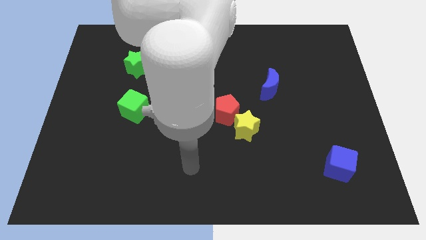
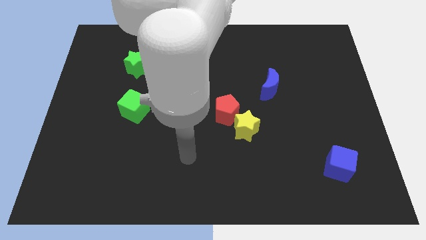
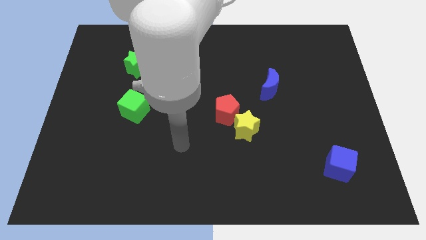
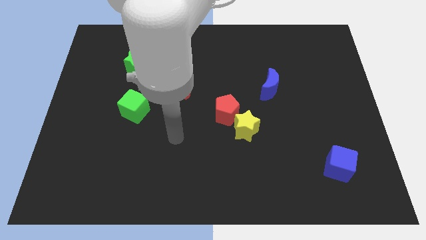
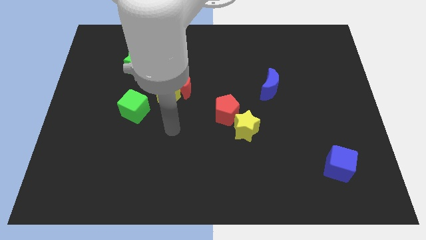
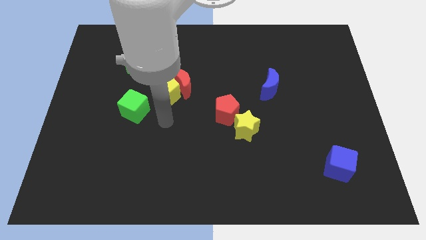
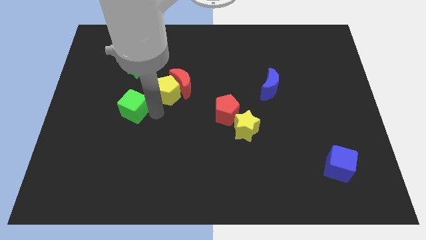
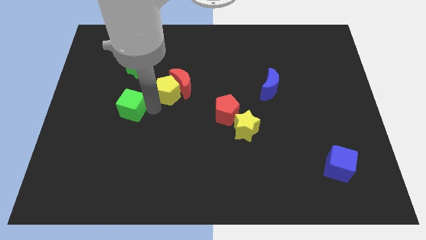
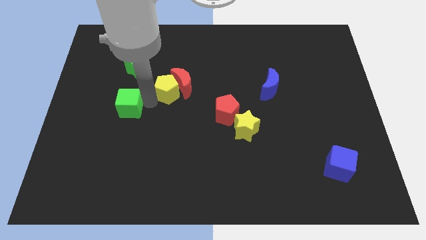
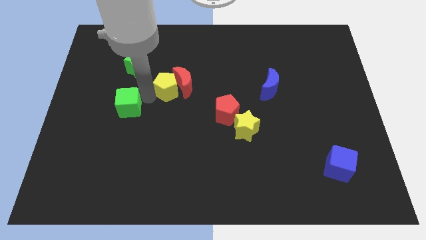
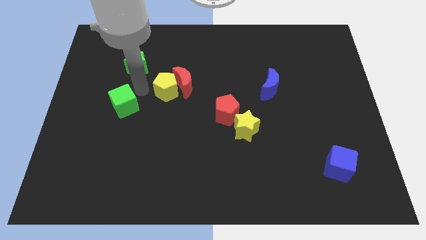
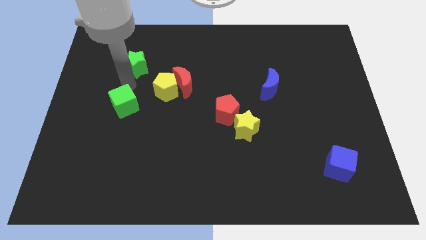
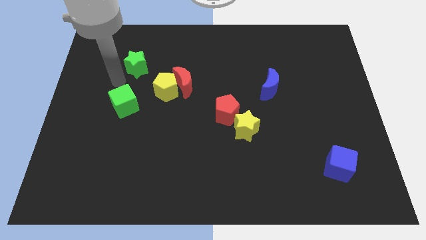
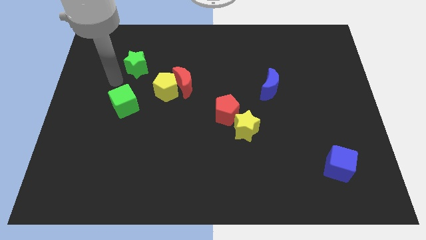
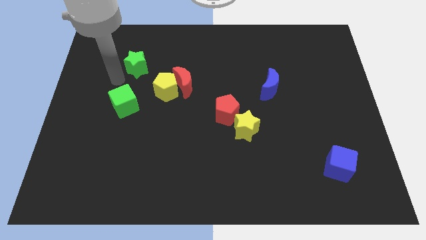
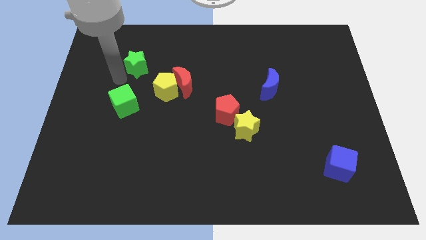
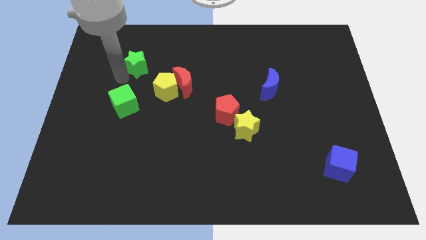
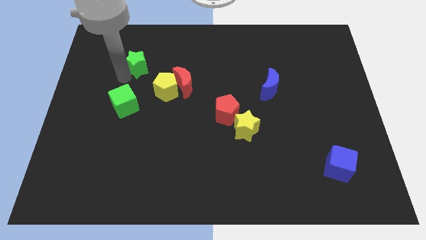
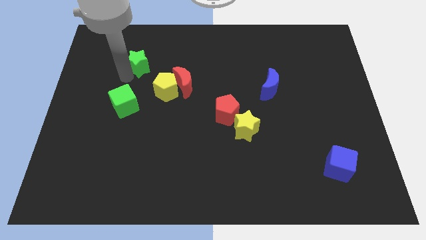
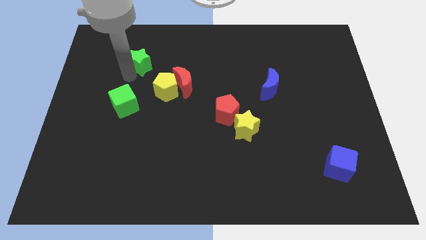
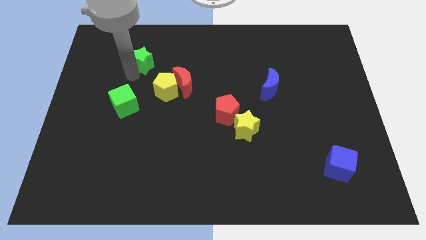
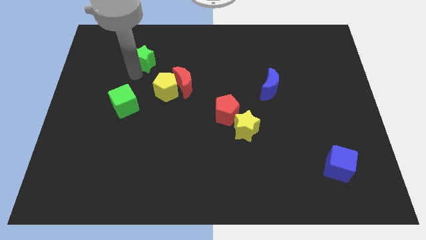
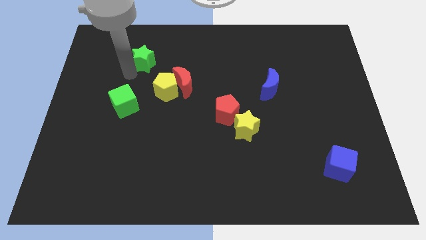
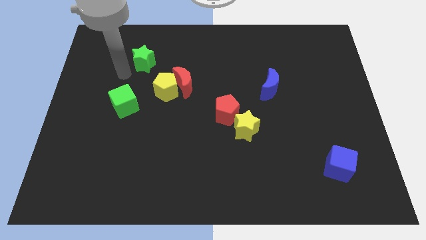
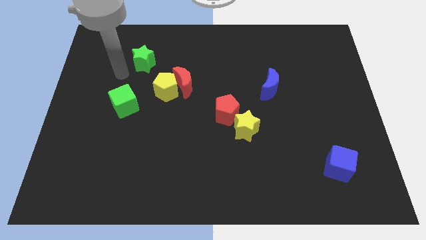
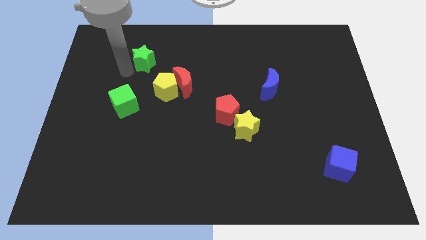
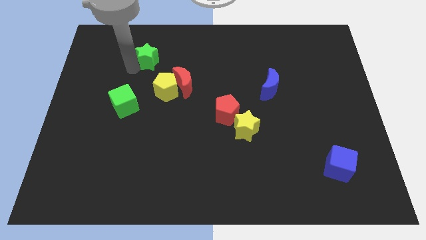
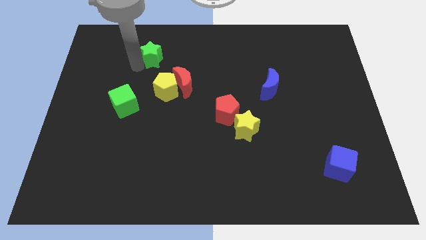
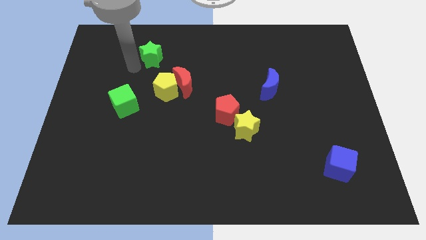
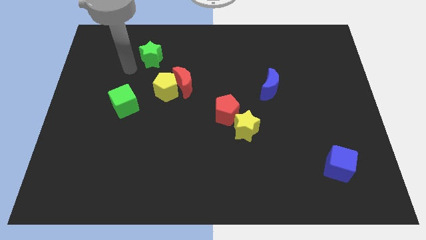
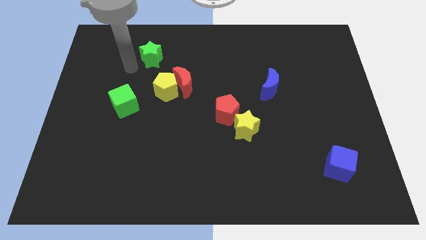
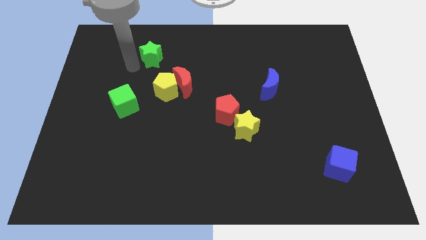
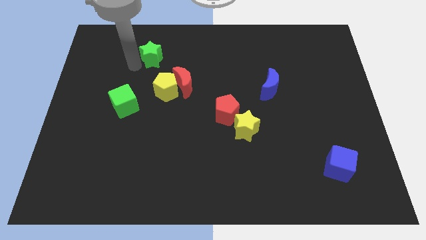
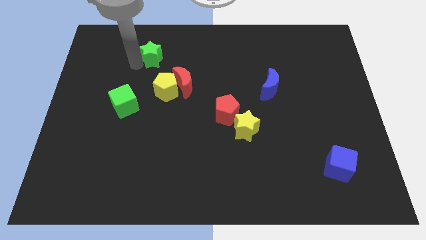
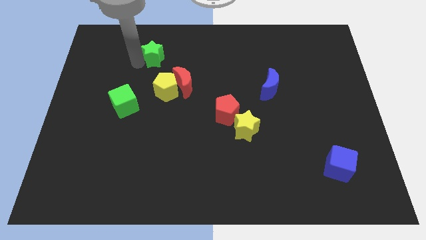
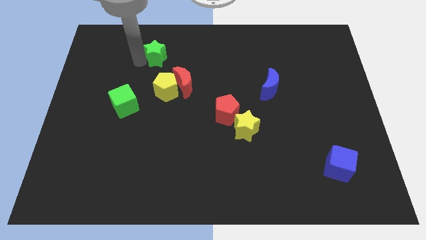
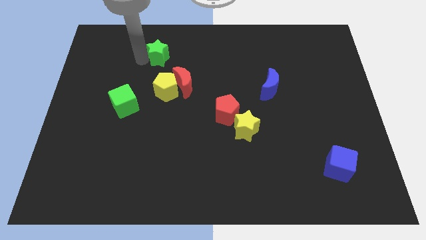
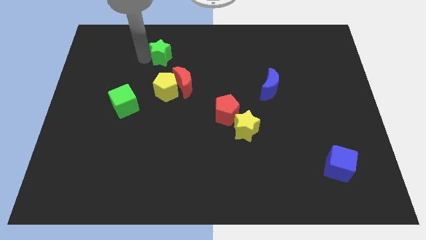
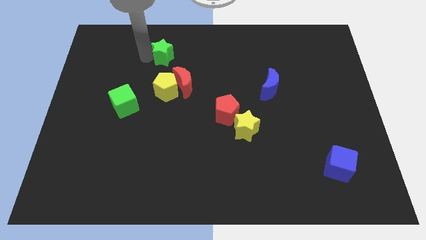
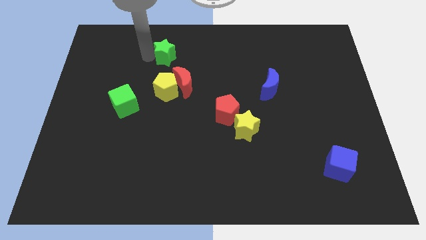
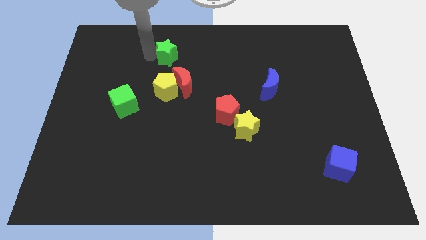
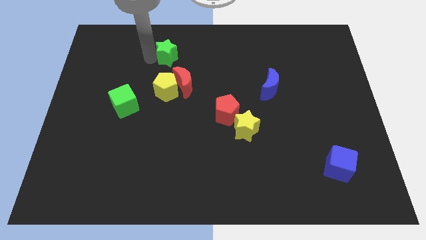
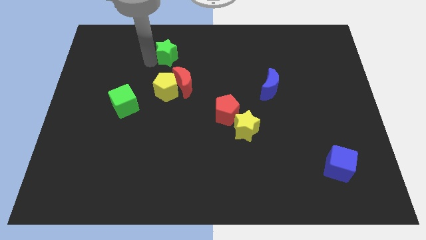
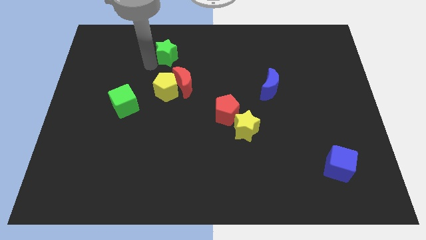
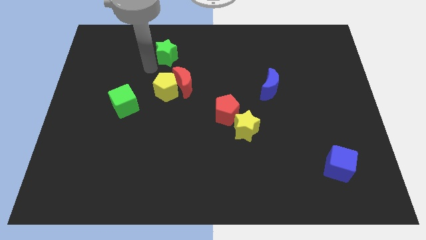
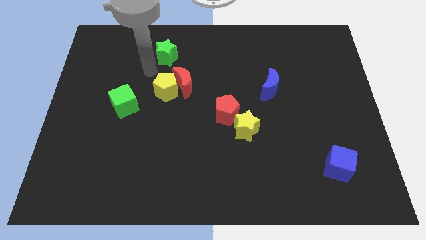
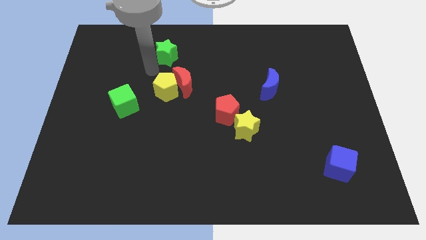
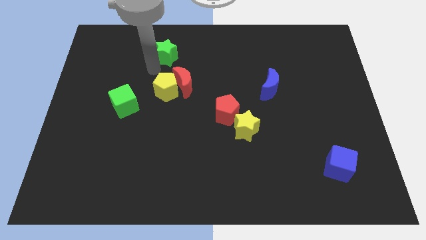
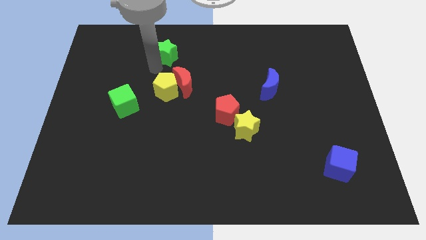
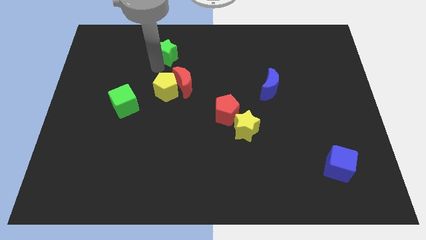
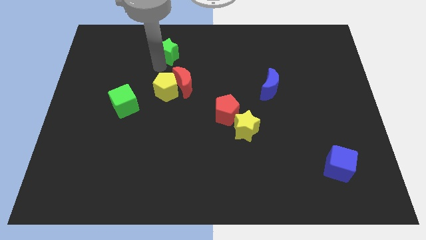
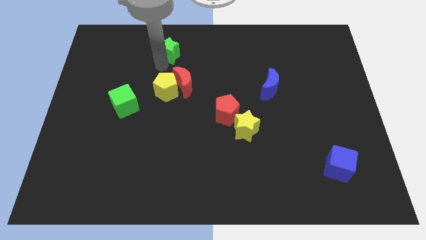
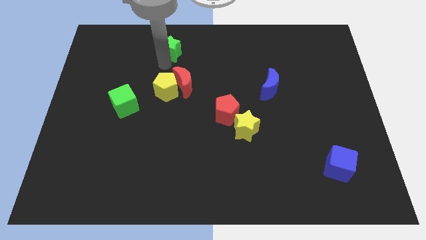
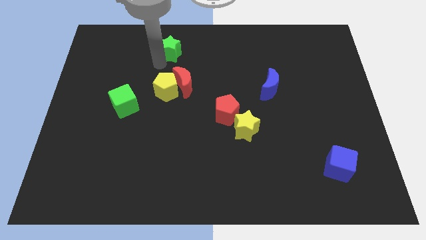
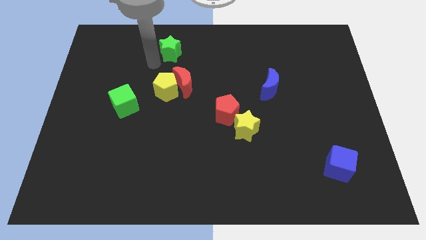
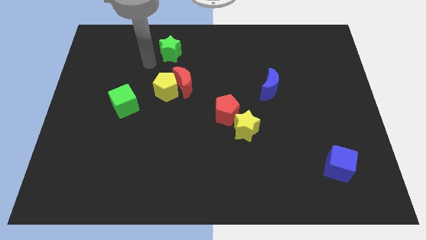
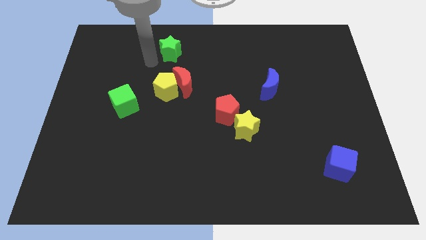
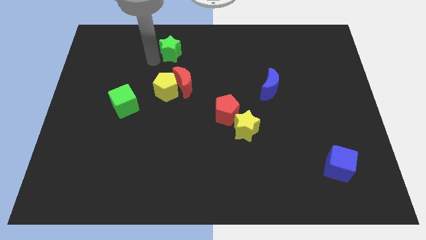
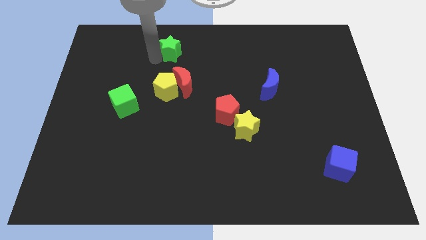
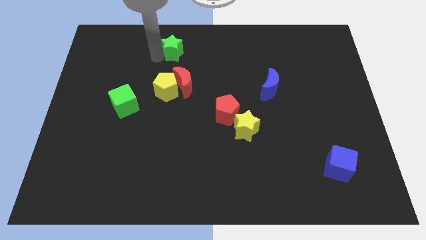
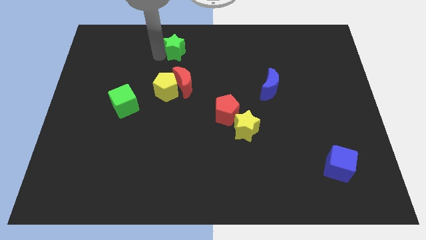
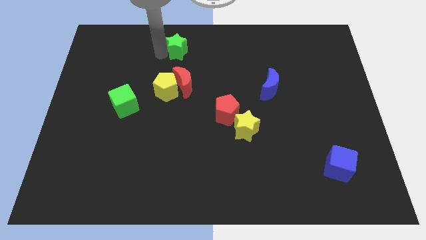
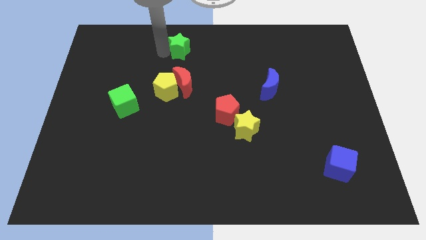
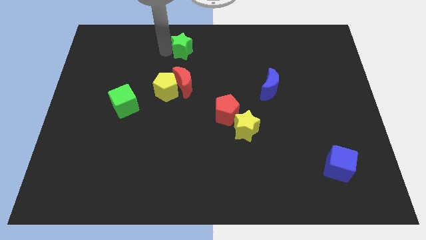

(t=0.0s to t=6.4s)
push the green star to the top side

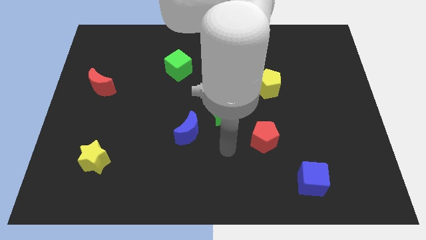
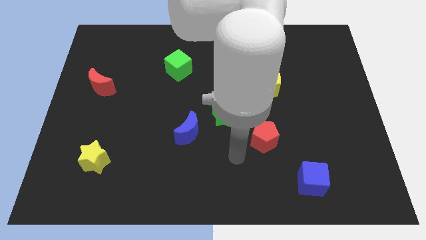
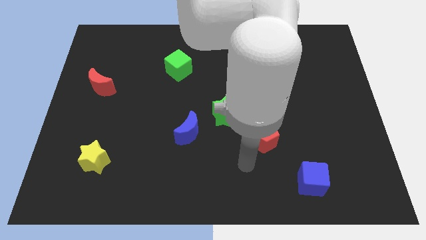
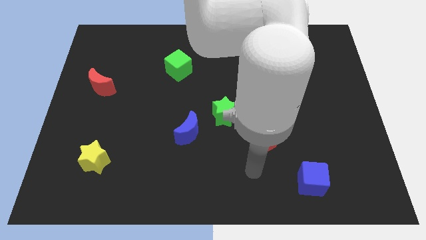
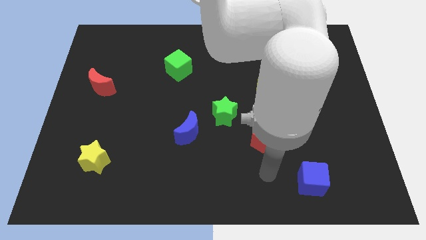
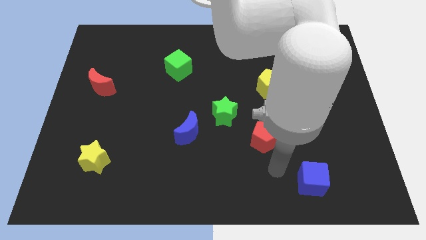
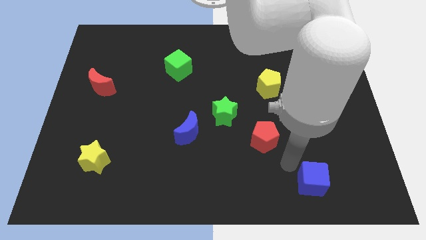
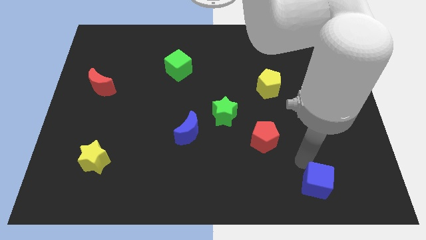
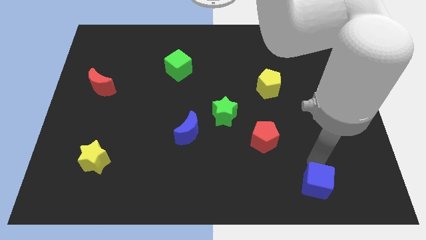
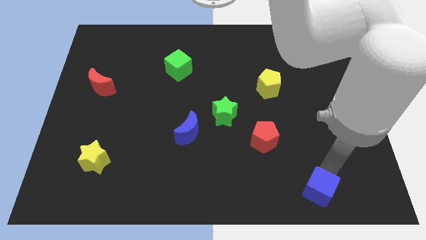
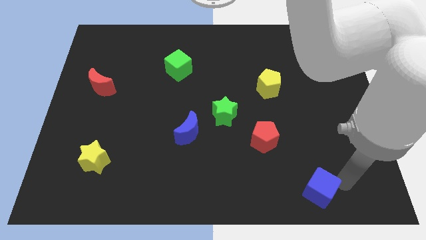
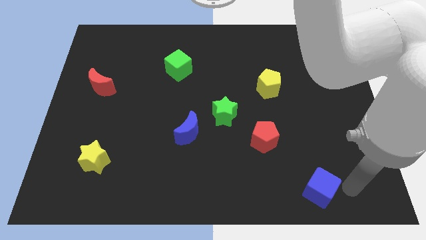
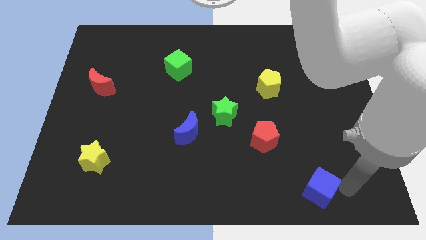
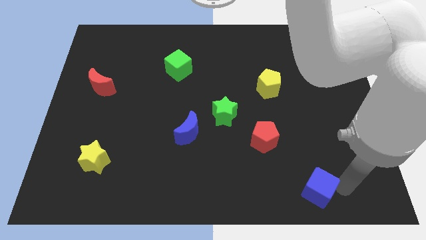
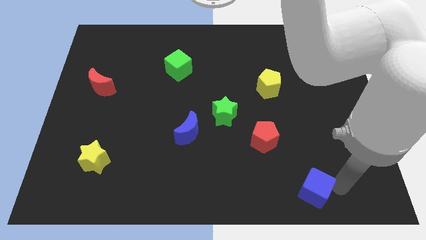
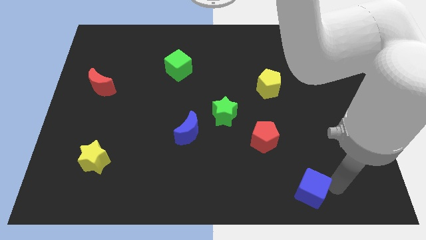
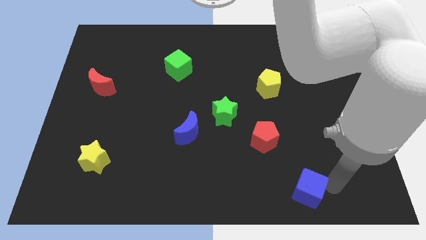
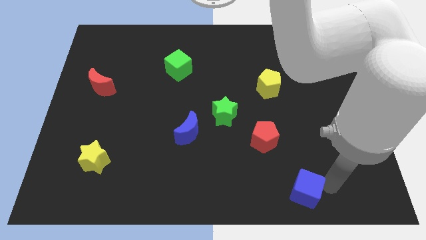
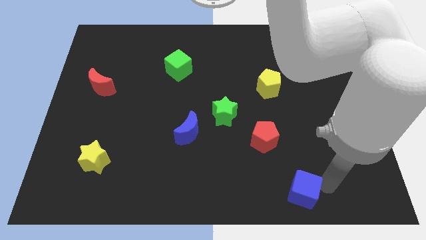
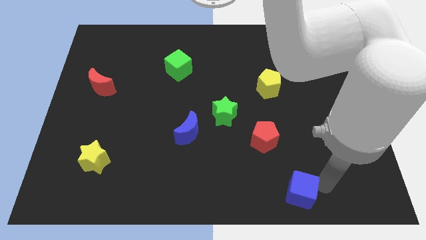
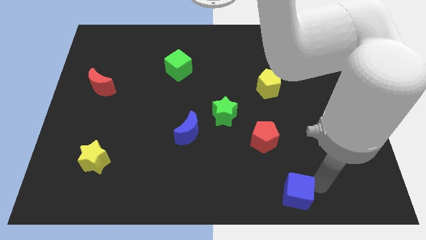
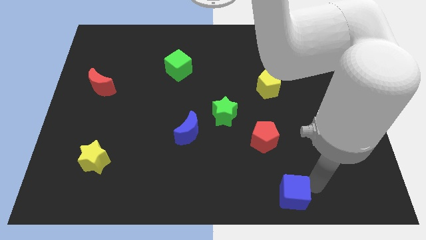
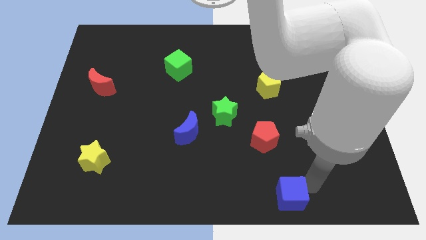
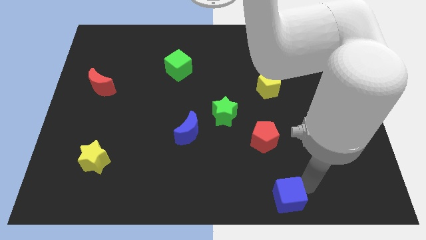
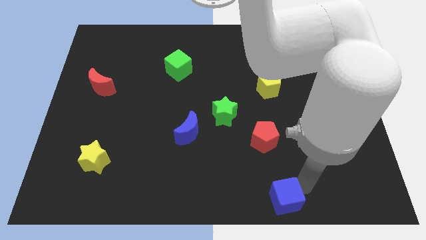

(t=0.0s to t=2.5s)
push the blue cube to the bottom
